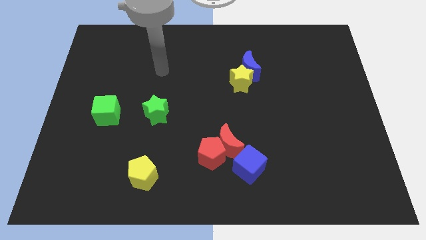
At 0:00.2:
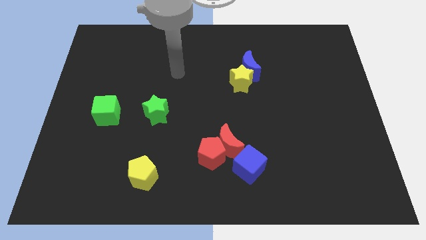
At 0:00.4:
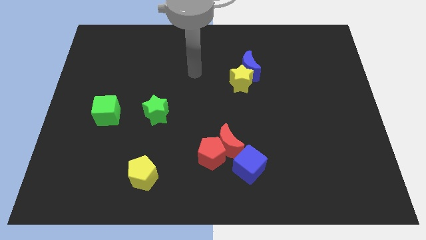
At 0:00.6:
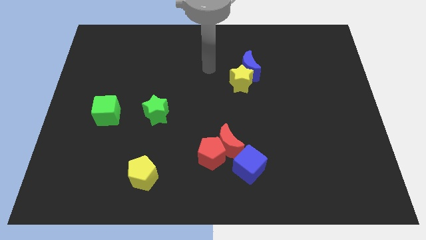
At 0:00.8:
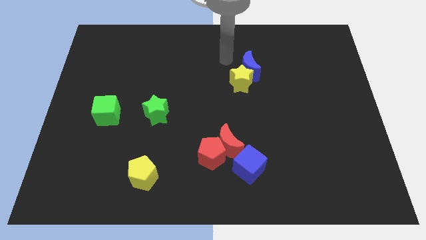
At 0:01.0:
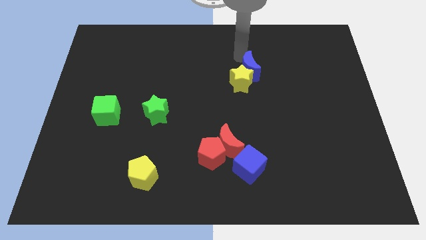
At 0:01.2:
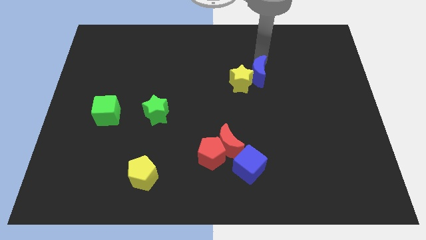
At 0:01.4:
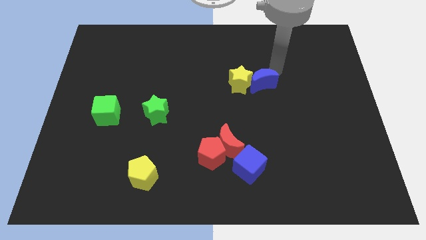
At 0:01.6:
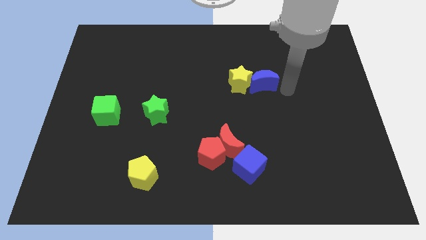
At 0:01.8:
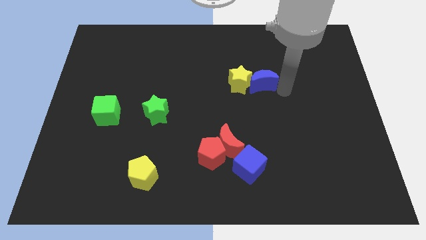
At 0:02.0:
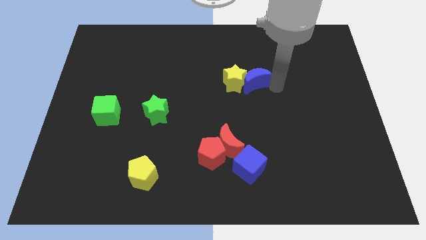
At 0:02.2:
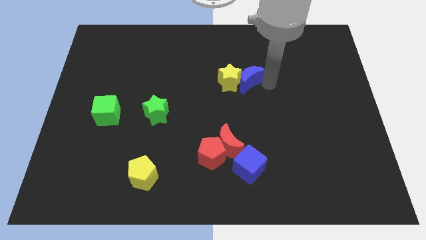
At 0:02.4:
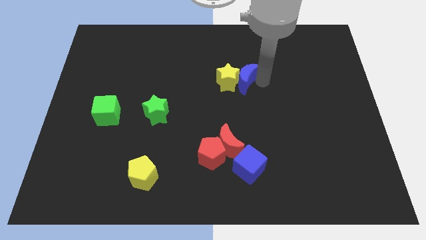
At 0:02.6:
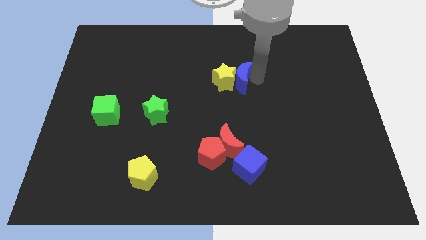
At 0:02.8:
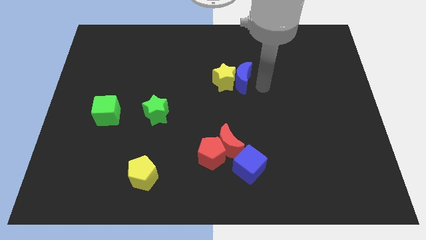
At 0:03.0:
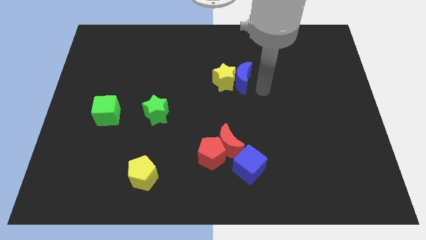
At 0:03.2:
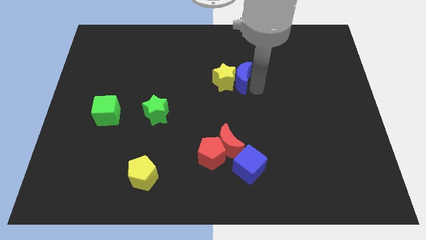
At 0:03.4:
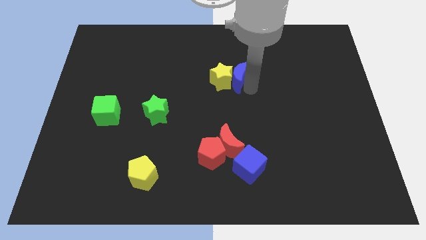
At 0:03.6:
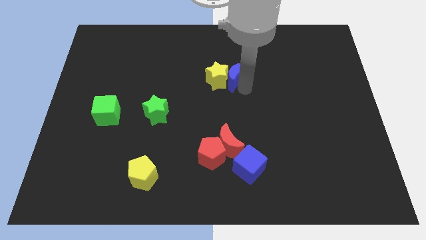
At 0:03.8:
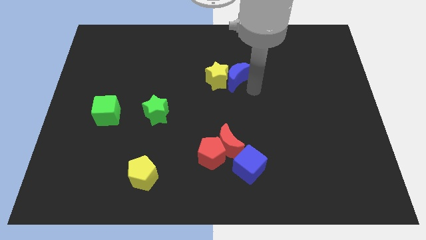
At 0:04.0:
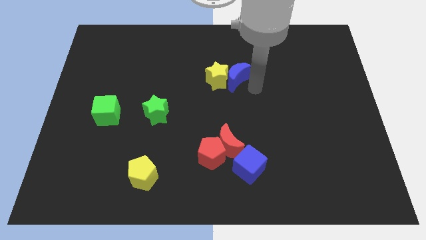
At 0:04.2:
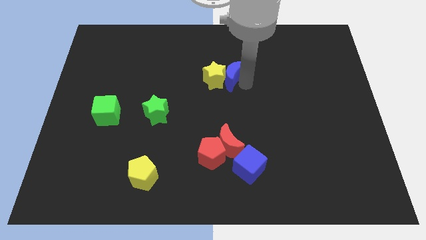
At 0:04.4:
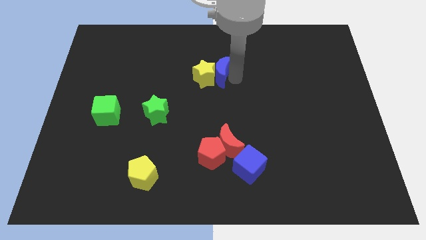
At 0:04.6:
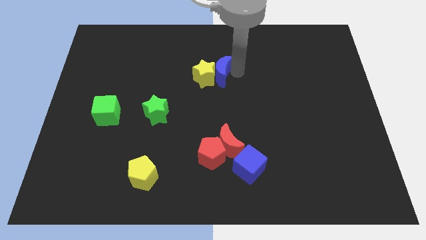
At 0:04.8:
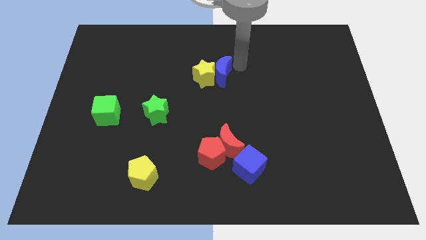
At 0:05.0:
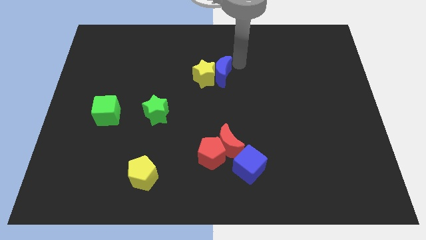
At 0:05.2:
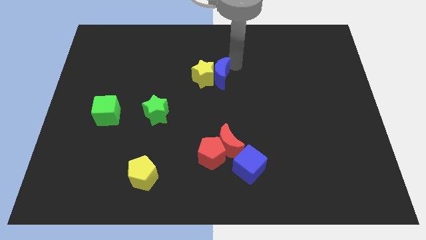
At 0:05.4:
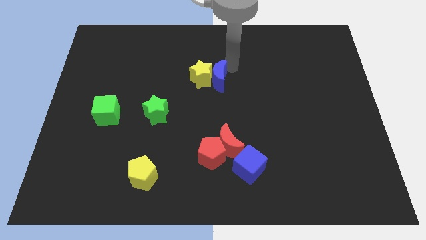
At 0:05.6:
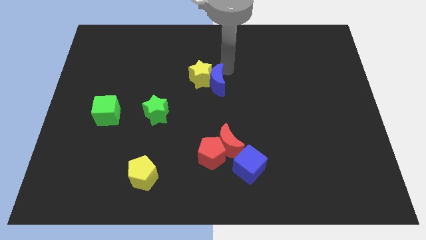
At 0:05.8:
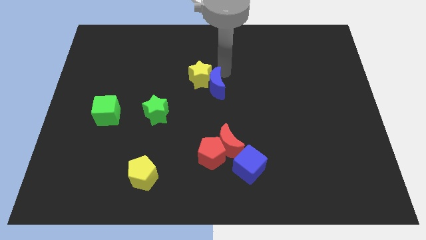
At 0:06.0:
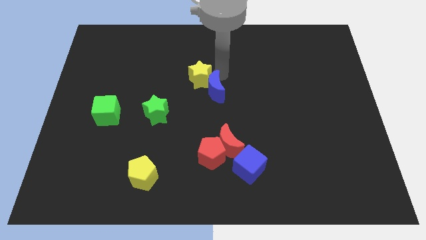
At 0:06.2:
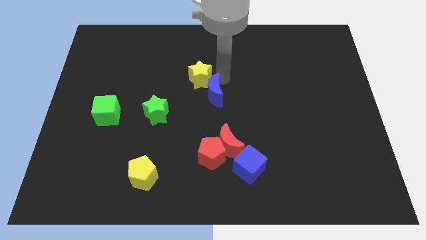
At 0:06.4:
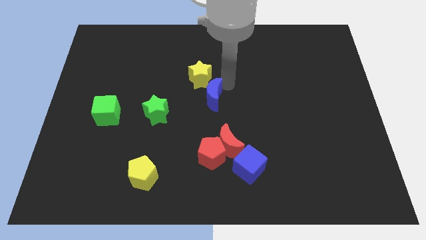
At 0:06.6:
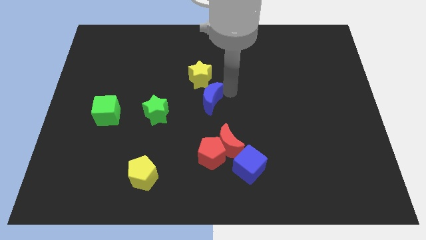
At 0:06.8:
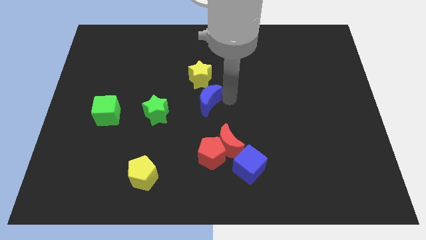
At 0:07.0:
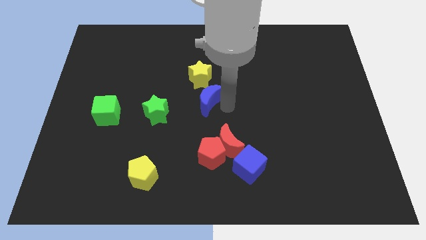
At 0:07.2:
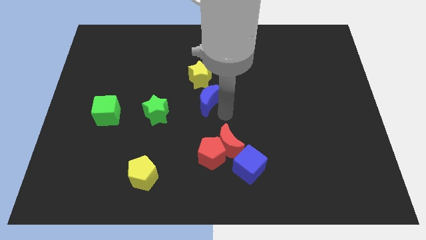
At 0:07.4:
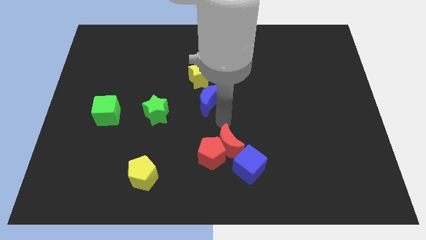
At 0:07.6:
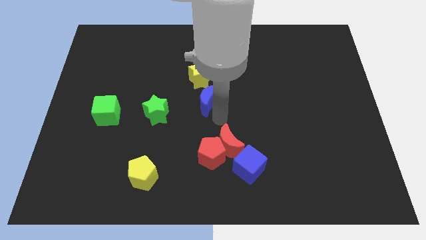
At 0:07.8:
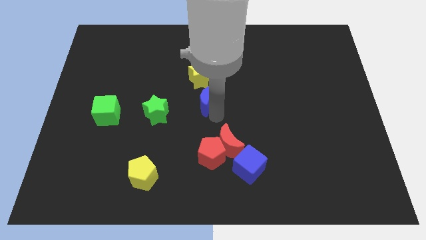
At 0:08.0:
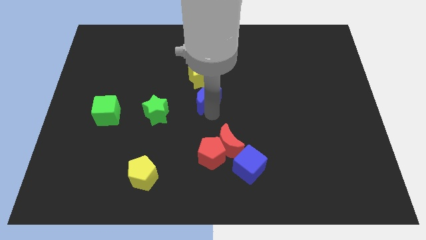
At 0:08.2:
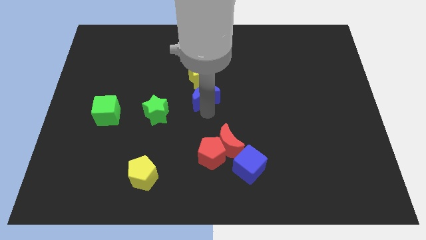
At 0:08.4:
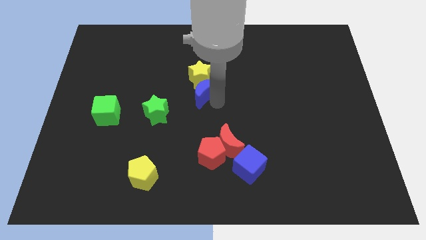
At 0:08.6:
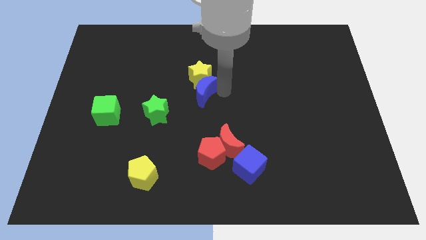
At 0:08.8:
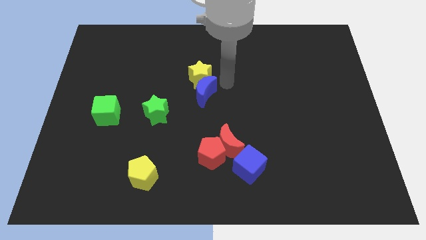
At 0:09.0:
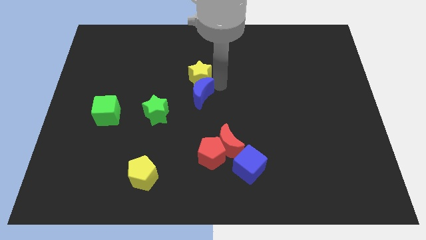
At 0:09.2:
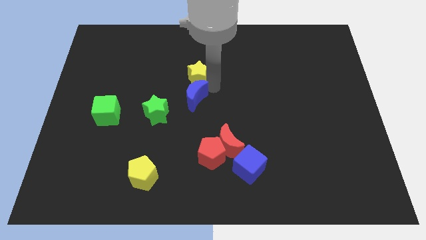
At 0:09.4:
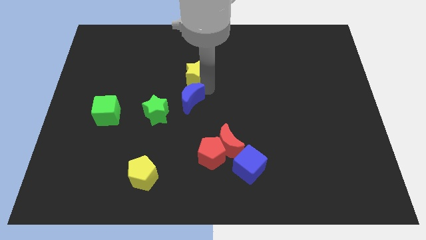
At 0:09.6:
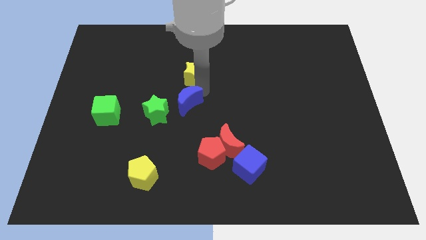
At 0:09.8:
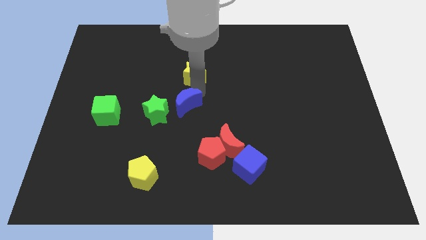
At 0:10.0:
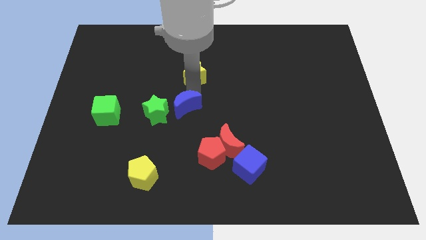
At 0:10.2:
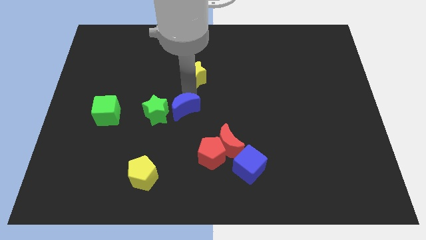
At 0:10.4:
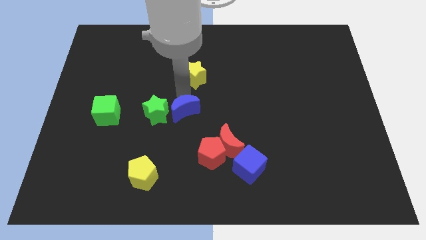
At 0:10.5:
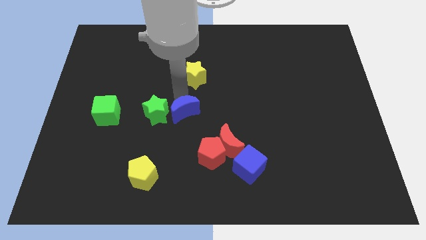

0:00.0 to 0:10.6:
push the blue moon close to the green star

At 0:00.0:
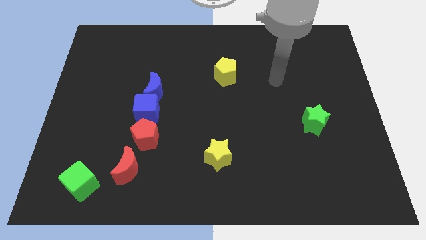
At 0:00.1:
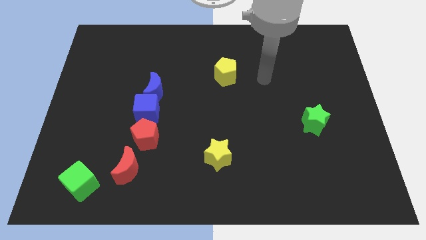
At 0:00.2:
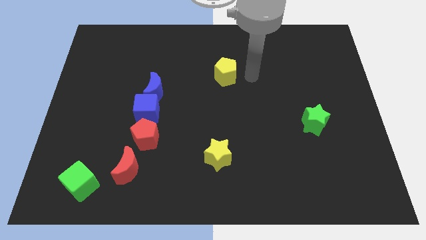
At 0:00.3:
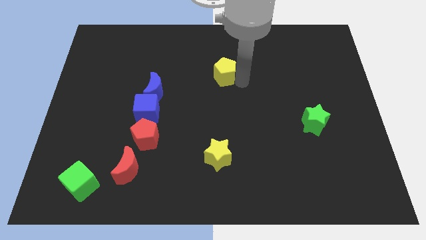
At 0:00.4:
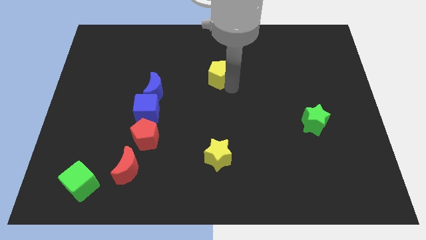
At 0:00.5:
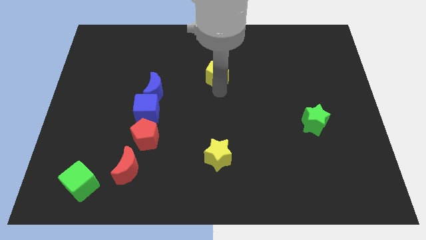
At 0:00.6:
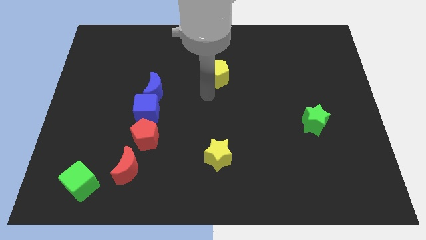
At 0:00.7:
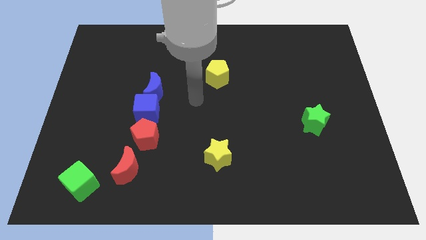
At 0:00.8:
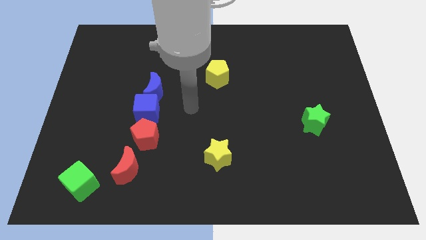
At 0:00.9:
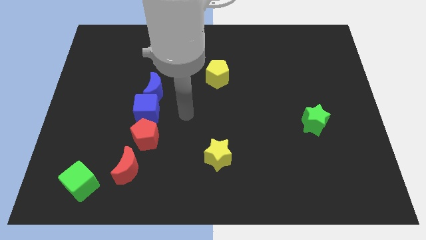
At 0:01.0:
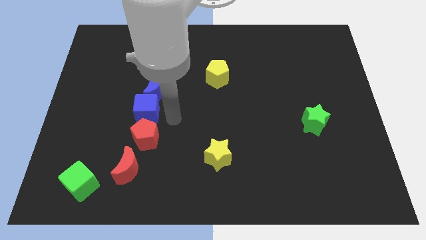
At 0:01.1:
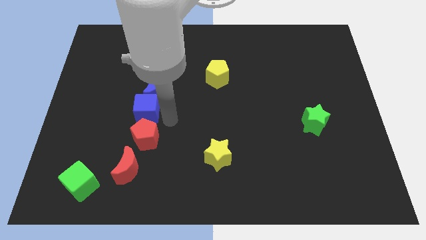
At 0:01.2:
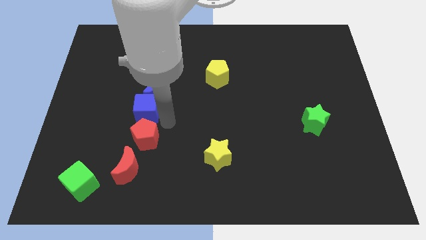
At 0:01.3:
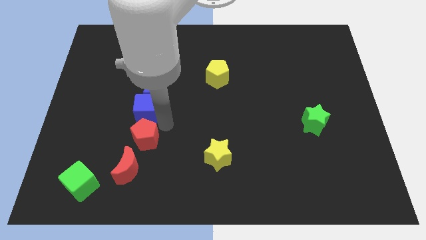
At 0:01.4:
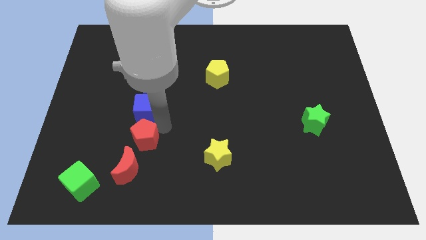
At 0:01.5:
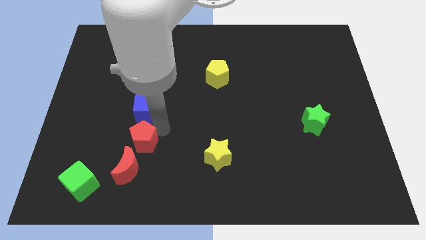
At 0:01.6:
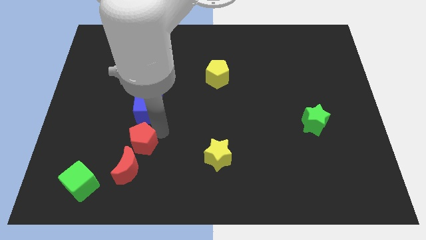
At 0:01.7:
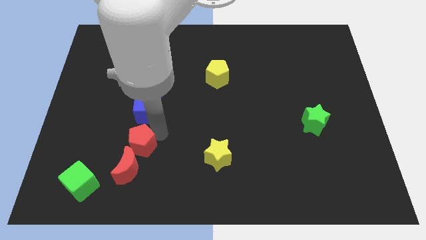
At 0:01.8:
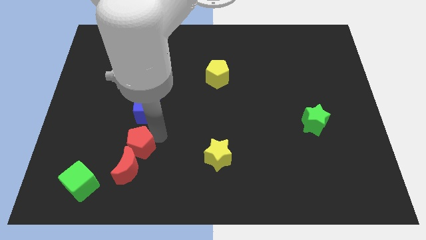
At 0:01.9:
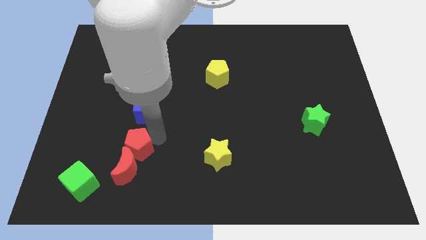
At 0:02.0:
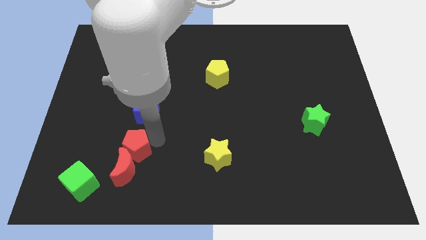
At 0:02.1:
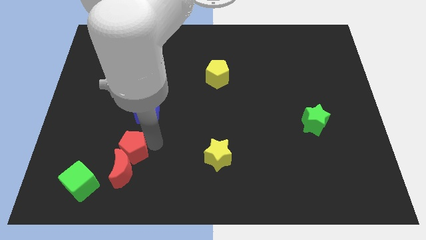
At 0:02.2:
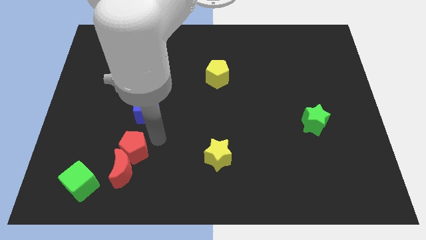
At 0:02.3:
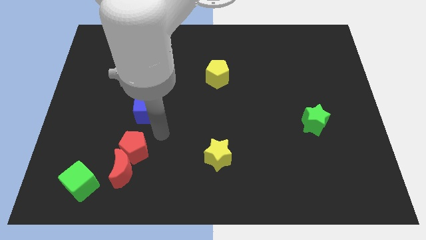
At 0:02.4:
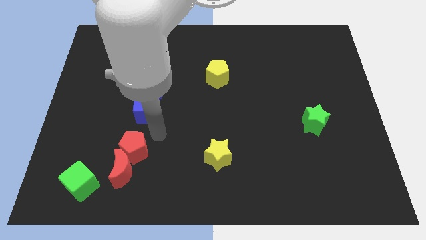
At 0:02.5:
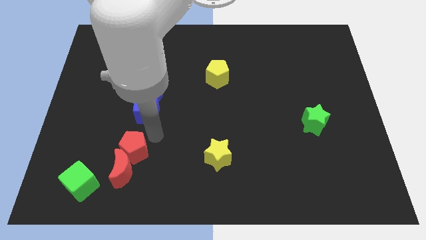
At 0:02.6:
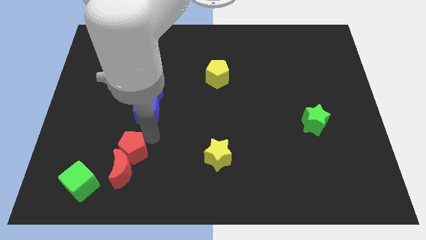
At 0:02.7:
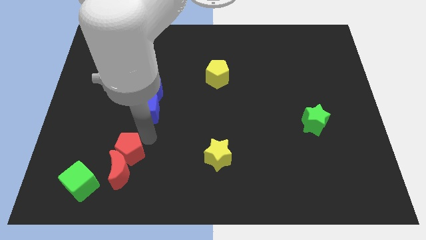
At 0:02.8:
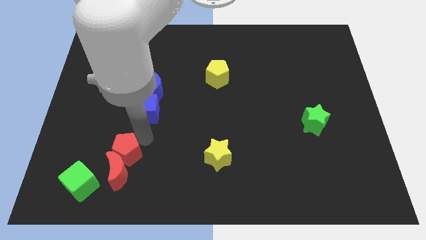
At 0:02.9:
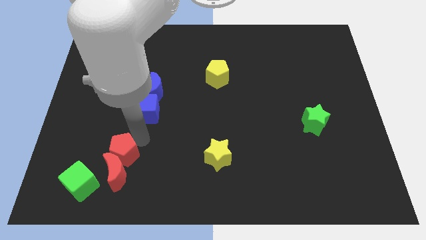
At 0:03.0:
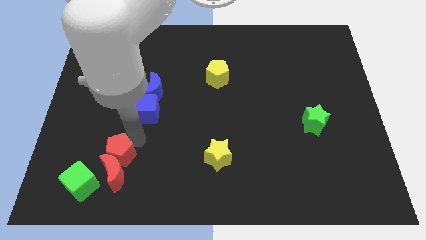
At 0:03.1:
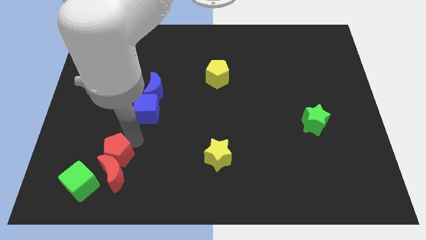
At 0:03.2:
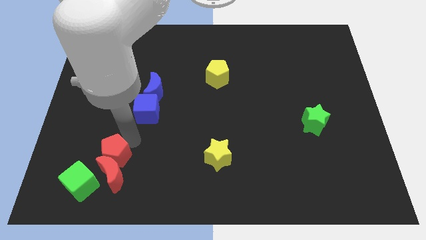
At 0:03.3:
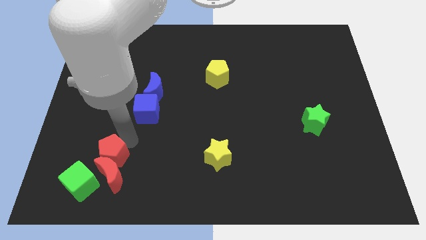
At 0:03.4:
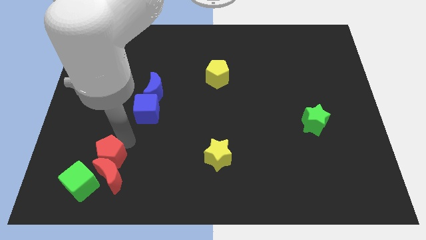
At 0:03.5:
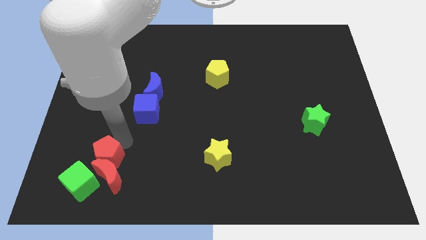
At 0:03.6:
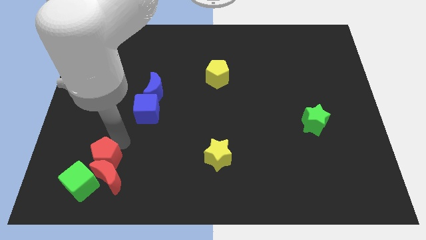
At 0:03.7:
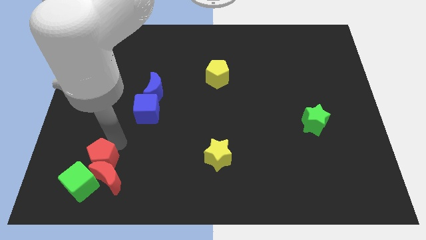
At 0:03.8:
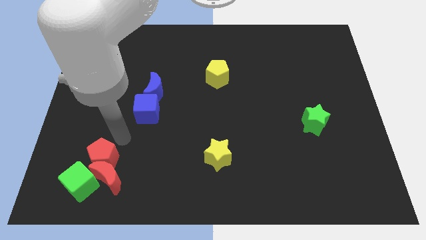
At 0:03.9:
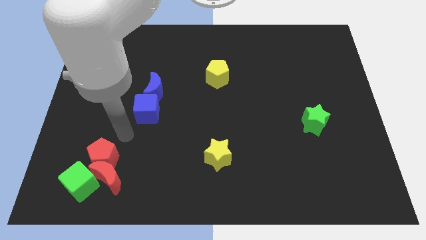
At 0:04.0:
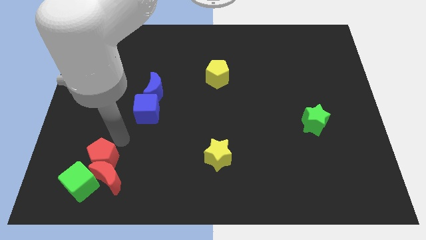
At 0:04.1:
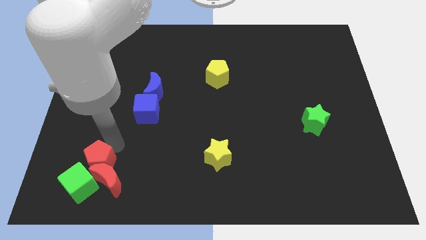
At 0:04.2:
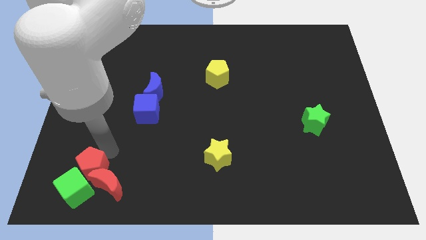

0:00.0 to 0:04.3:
move the red pentagon next to the green cube
